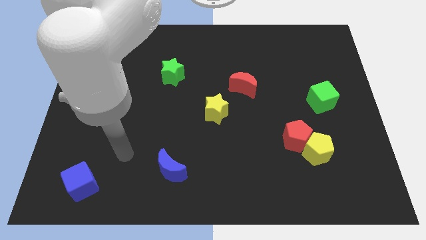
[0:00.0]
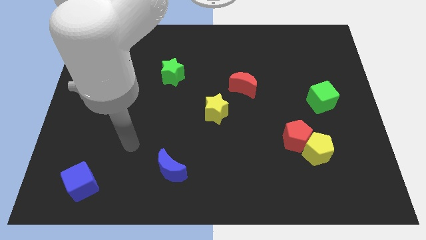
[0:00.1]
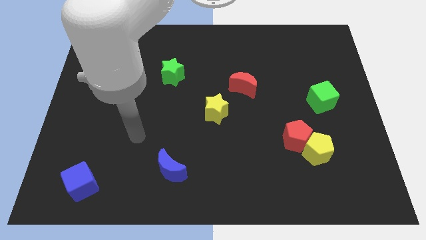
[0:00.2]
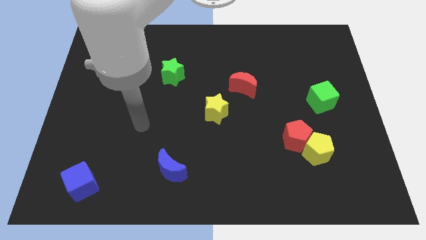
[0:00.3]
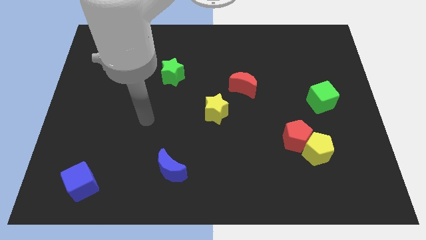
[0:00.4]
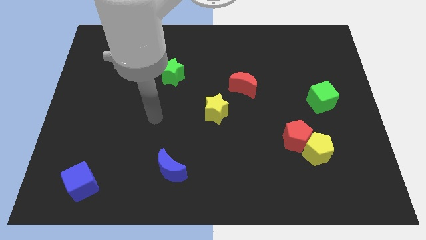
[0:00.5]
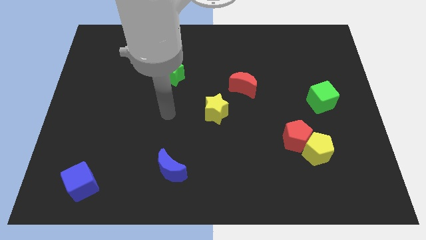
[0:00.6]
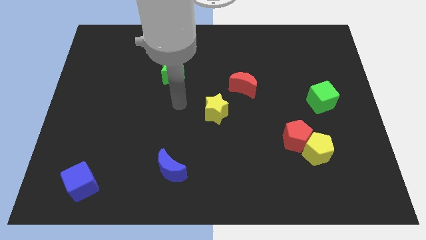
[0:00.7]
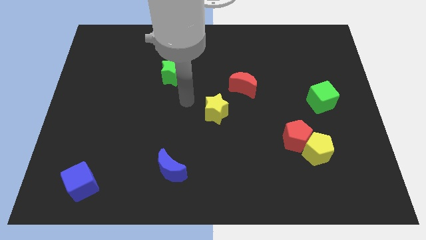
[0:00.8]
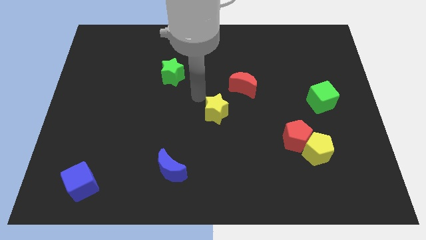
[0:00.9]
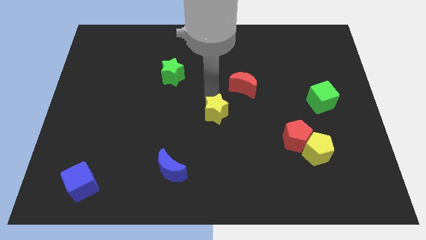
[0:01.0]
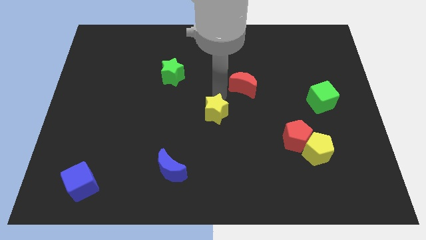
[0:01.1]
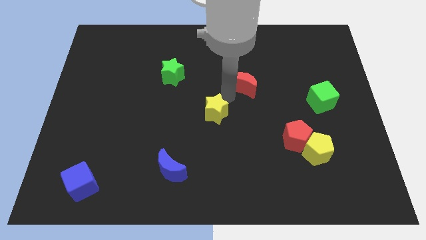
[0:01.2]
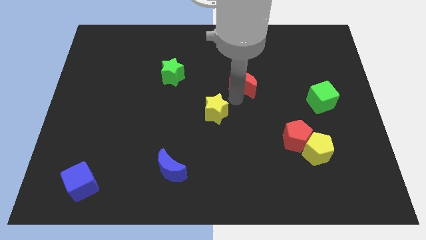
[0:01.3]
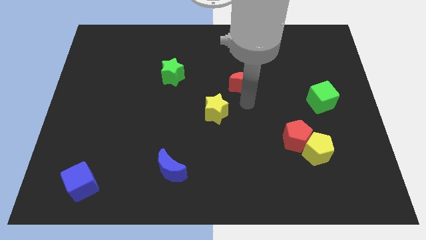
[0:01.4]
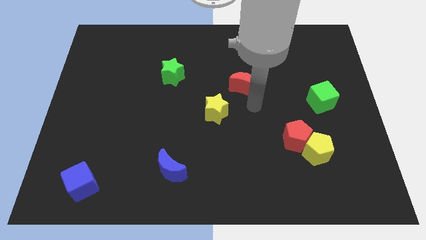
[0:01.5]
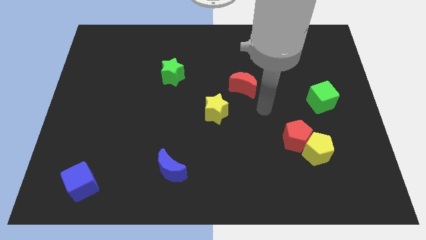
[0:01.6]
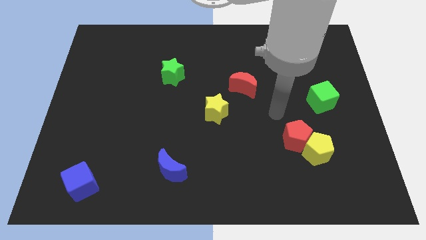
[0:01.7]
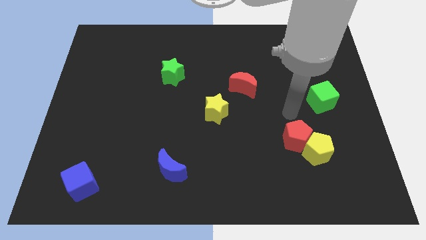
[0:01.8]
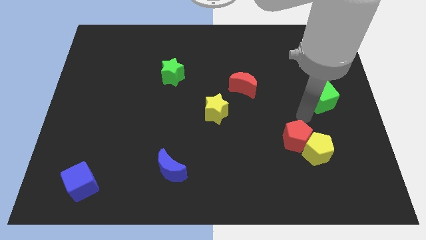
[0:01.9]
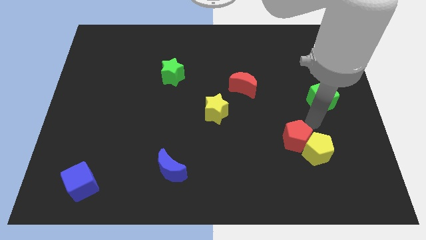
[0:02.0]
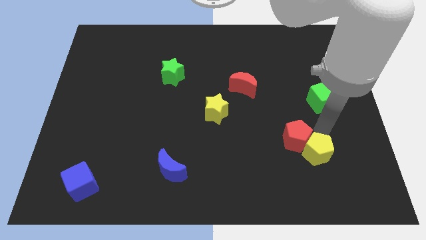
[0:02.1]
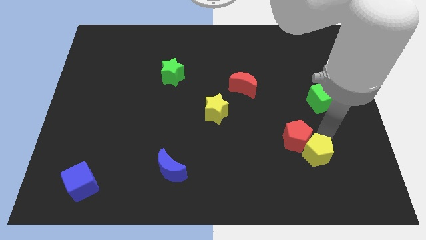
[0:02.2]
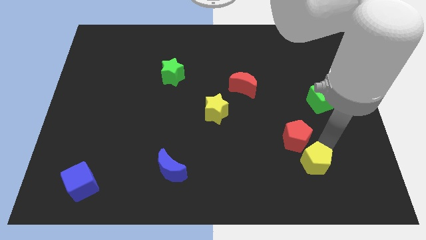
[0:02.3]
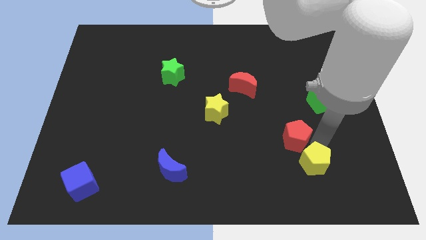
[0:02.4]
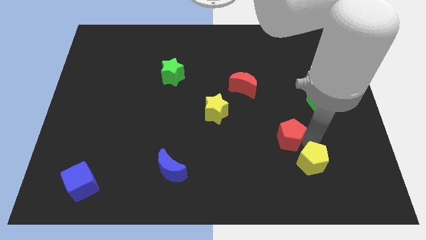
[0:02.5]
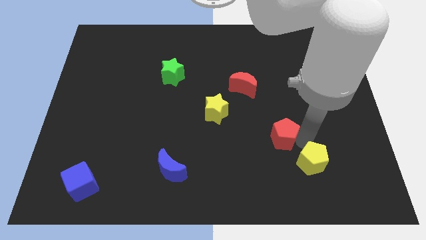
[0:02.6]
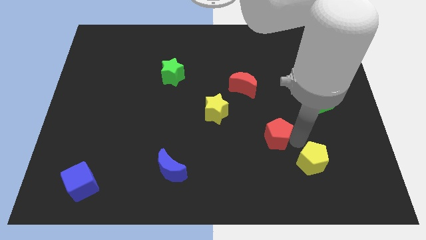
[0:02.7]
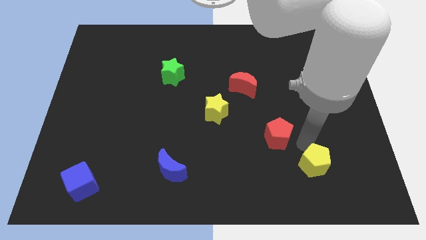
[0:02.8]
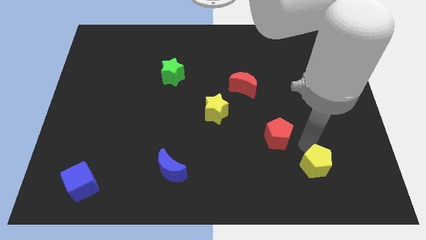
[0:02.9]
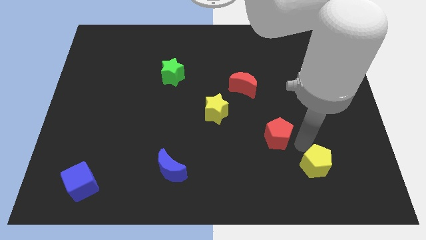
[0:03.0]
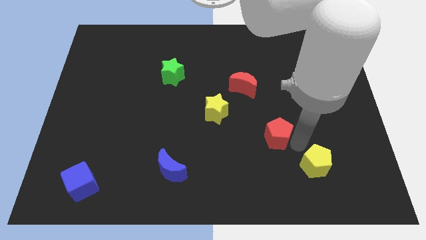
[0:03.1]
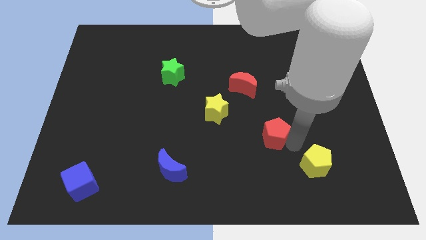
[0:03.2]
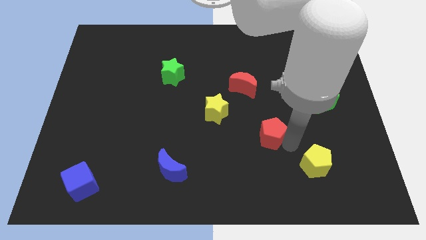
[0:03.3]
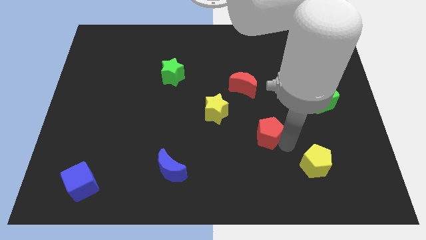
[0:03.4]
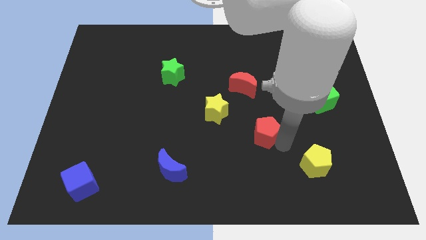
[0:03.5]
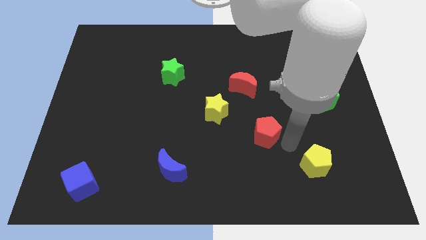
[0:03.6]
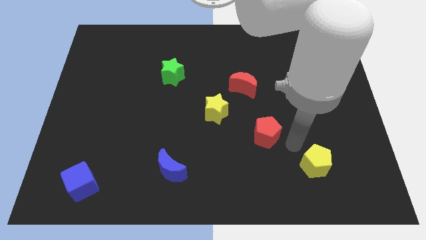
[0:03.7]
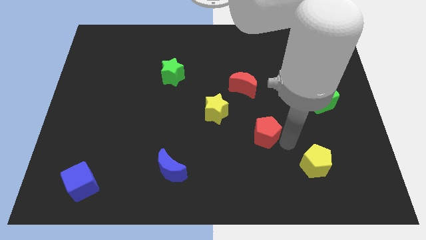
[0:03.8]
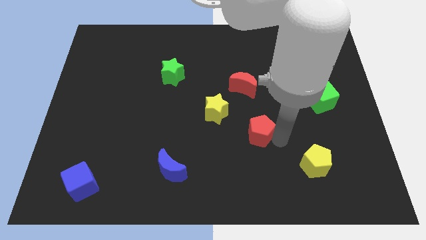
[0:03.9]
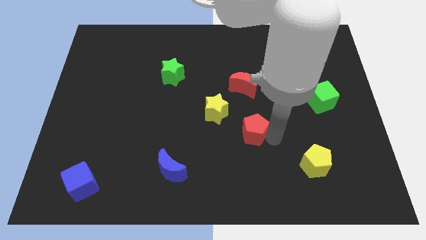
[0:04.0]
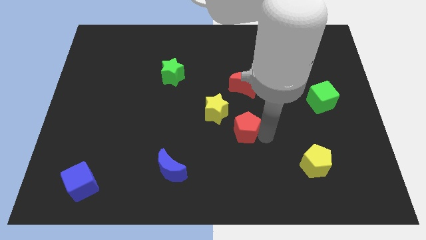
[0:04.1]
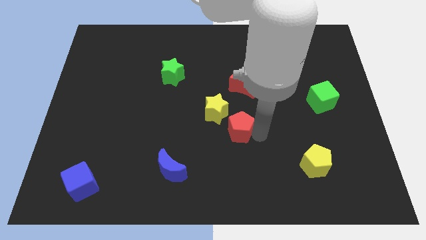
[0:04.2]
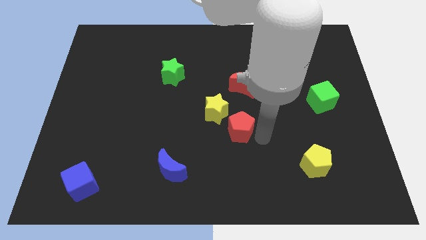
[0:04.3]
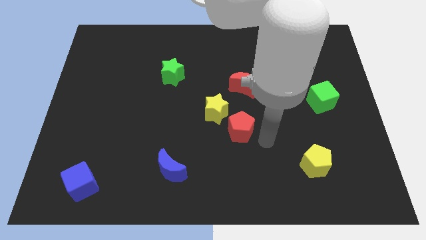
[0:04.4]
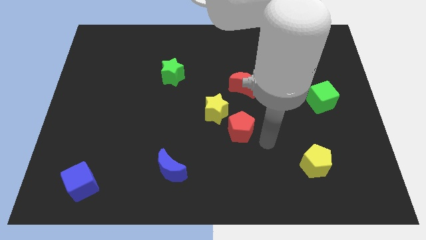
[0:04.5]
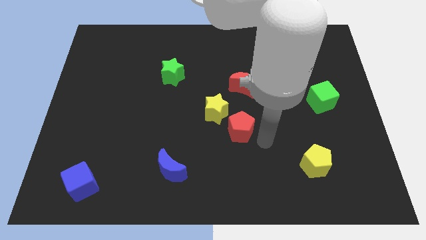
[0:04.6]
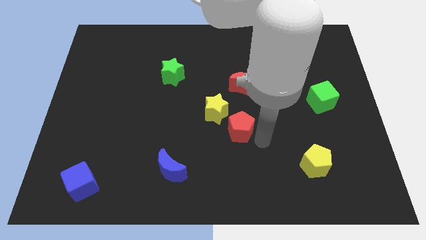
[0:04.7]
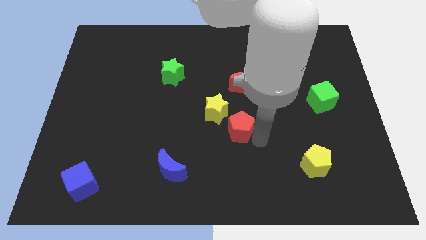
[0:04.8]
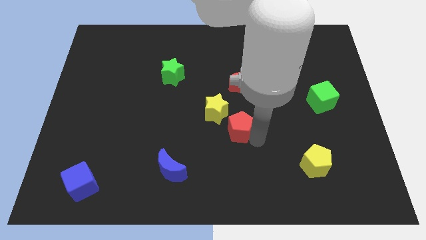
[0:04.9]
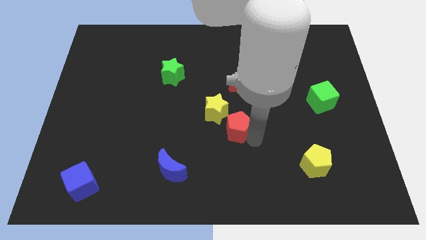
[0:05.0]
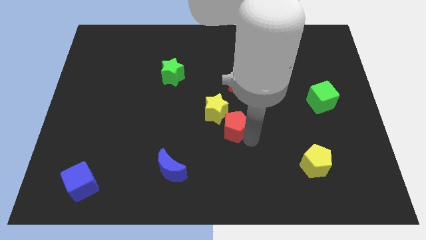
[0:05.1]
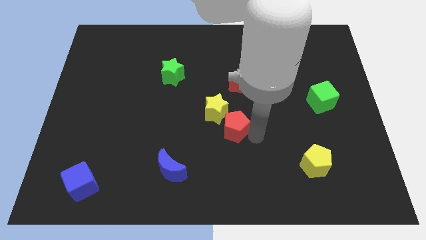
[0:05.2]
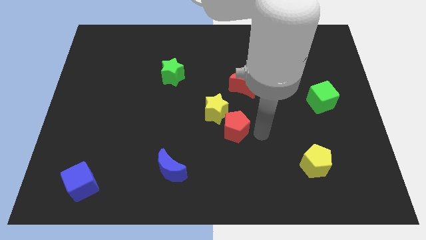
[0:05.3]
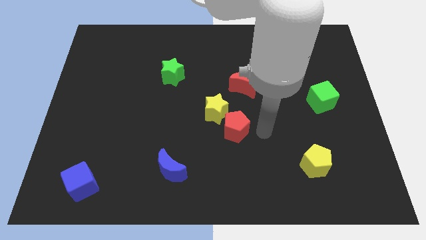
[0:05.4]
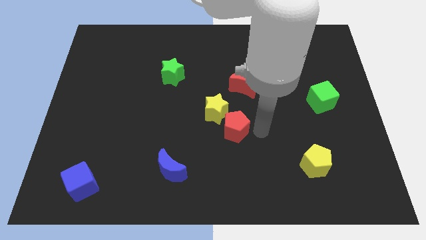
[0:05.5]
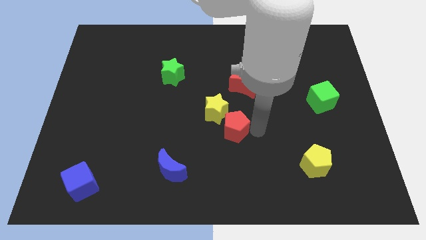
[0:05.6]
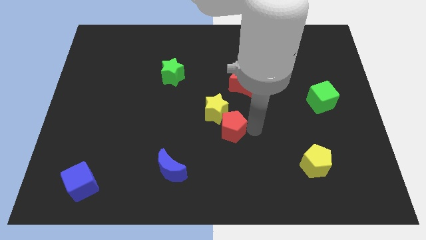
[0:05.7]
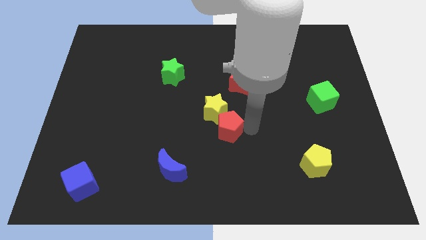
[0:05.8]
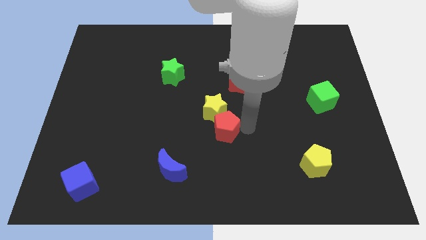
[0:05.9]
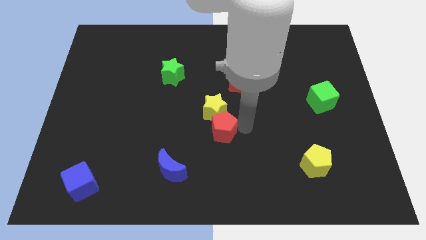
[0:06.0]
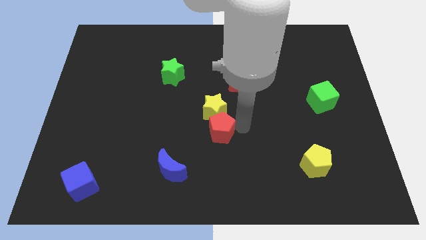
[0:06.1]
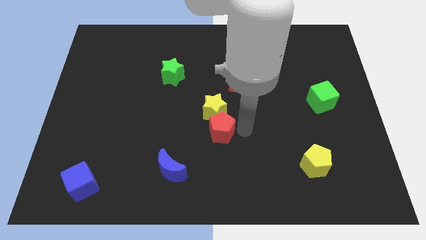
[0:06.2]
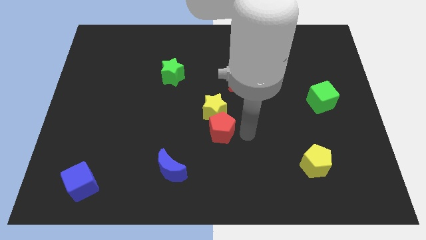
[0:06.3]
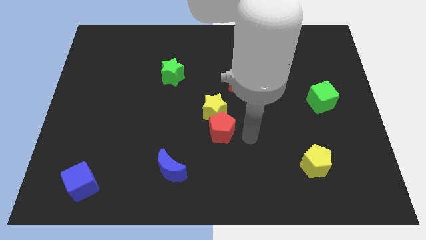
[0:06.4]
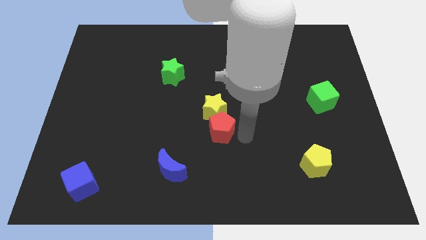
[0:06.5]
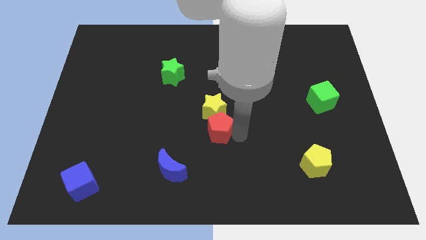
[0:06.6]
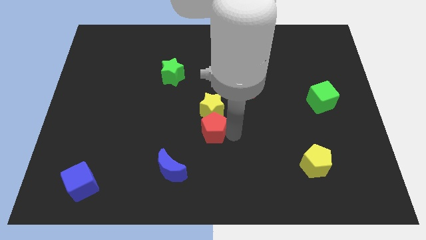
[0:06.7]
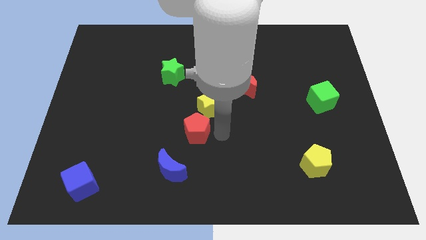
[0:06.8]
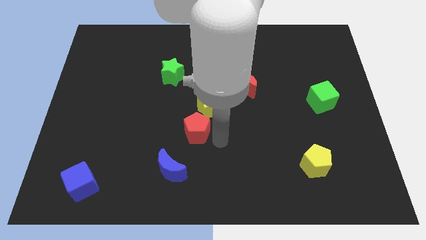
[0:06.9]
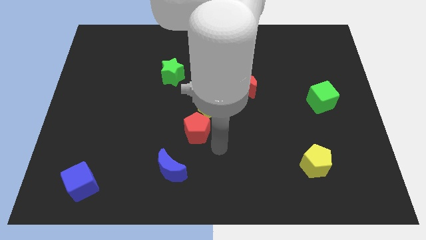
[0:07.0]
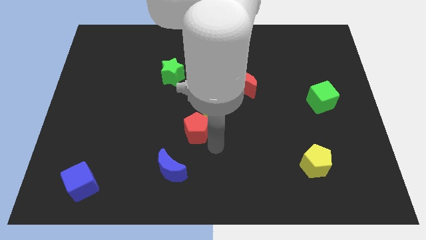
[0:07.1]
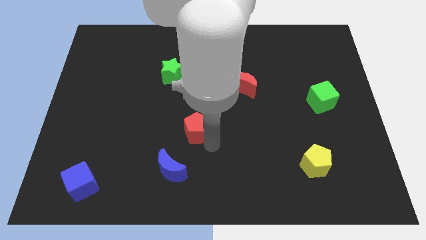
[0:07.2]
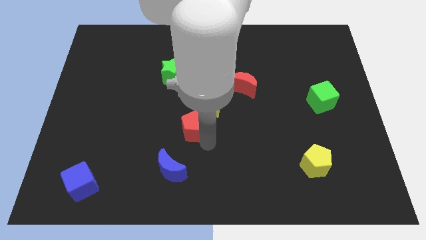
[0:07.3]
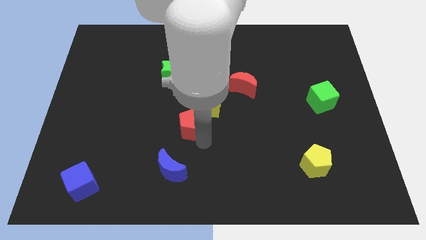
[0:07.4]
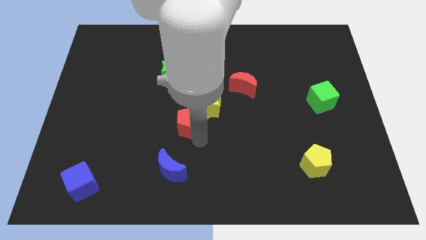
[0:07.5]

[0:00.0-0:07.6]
slide the red pentagon to the left side of the yellow star

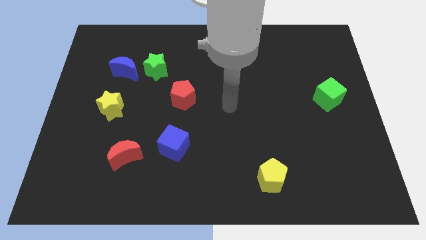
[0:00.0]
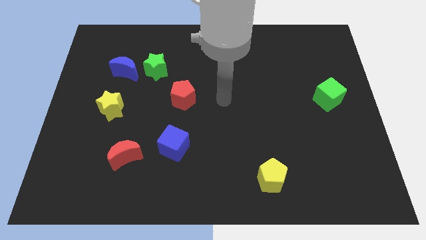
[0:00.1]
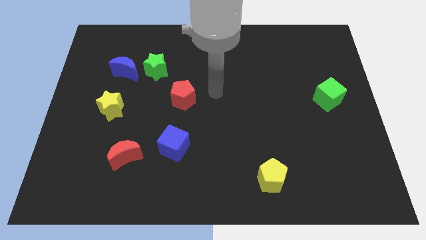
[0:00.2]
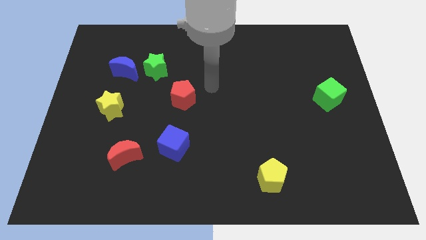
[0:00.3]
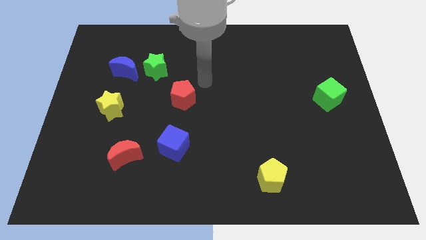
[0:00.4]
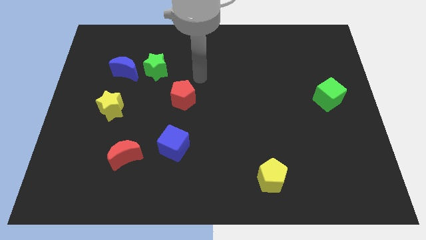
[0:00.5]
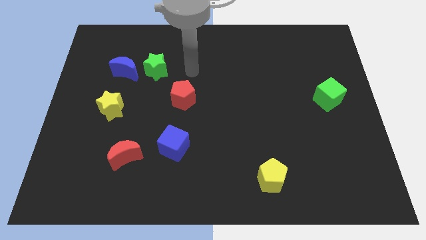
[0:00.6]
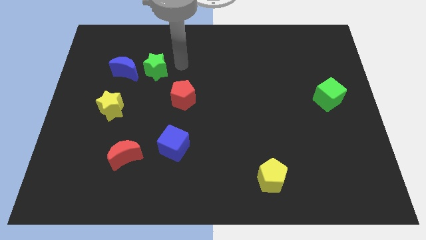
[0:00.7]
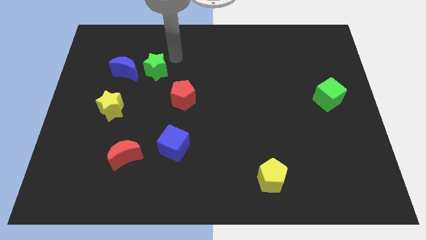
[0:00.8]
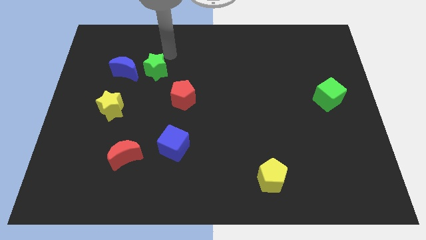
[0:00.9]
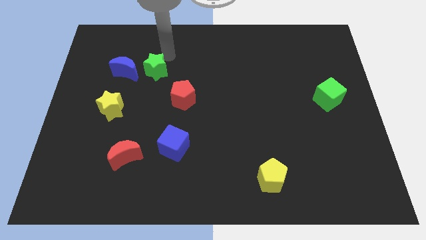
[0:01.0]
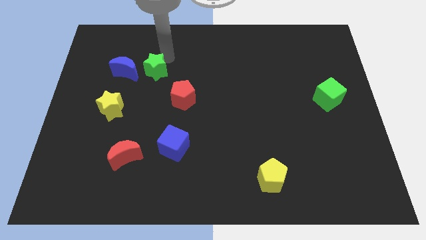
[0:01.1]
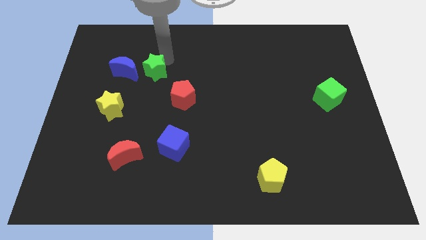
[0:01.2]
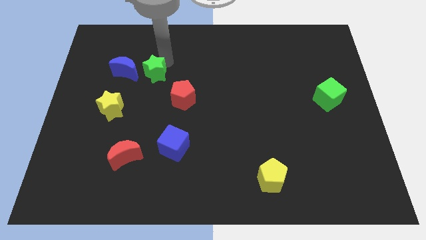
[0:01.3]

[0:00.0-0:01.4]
slide the green star diagonally down and to the right of the blue moon
